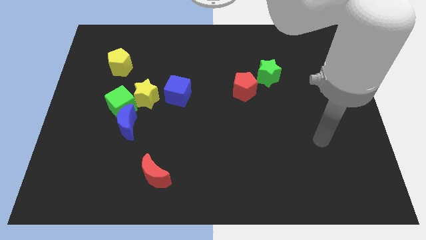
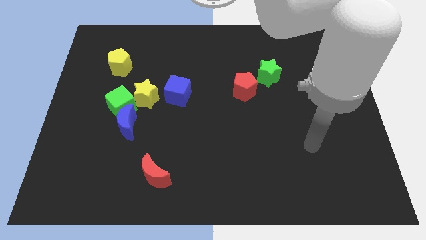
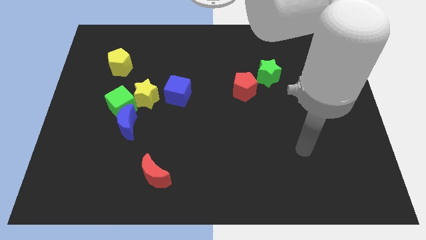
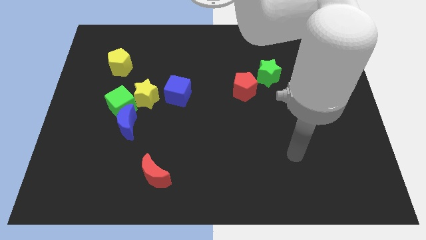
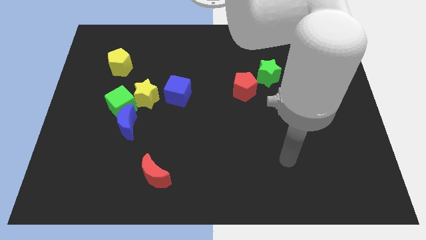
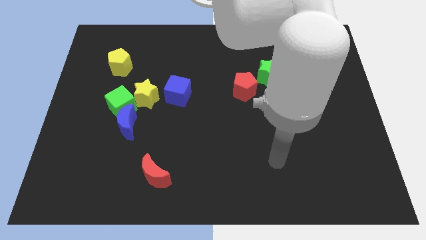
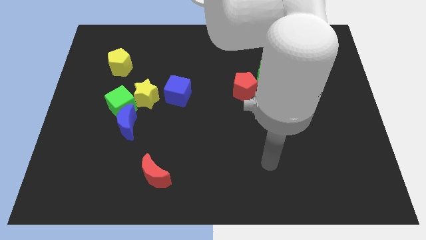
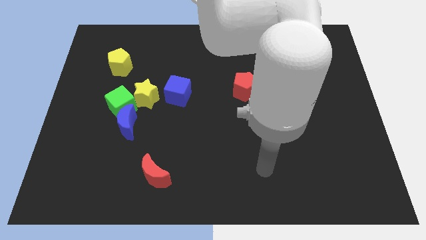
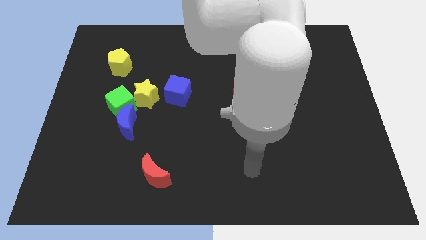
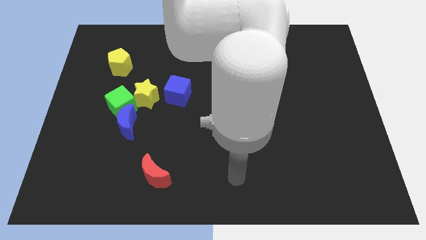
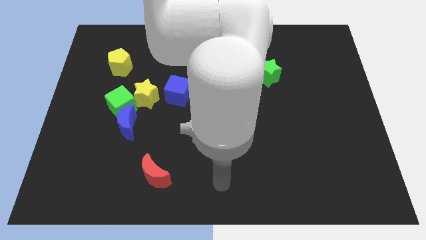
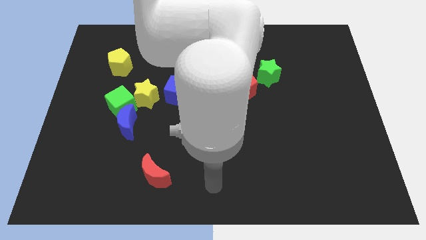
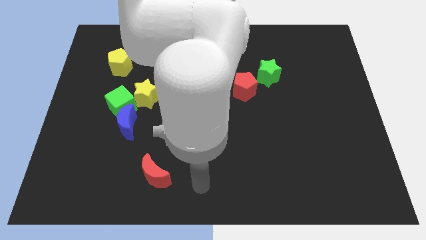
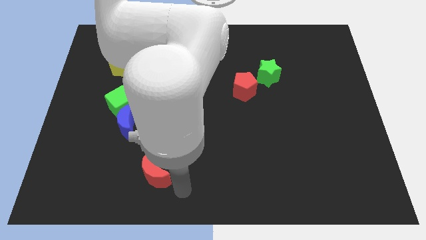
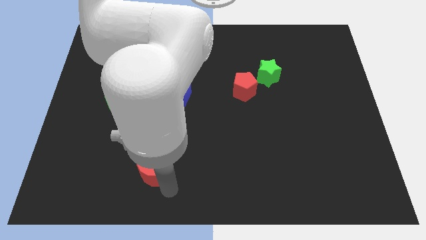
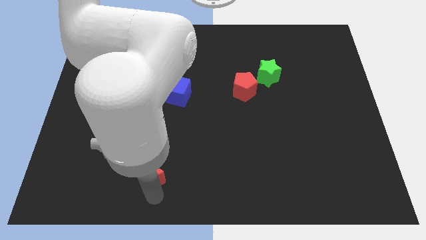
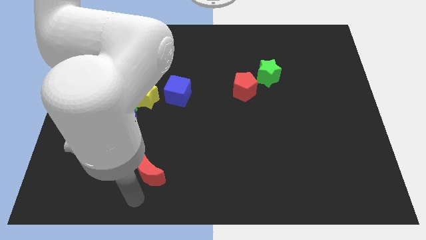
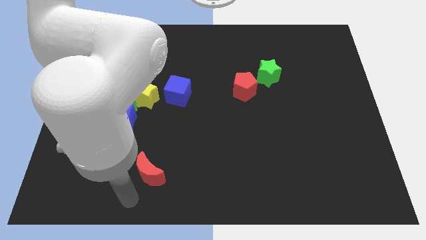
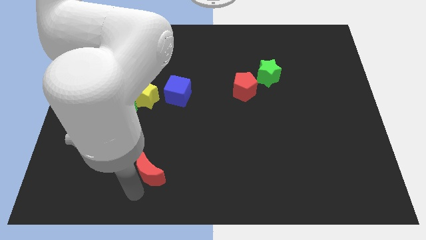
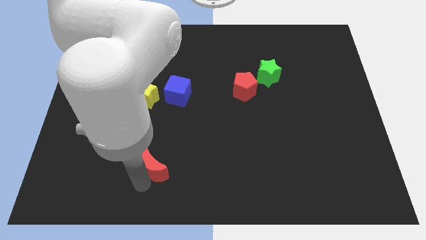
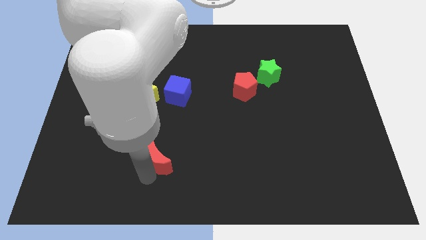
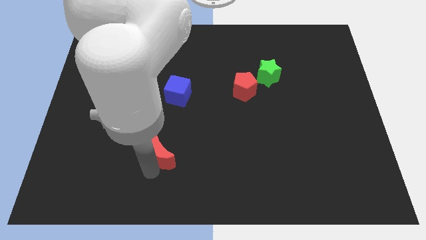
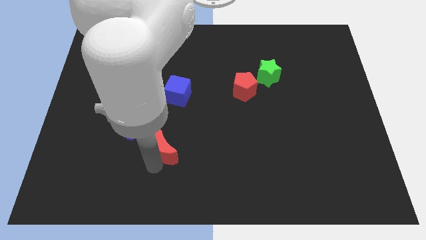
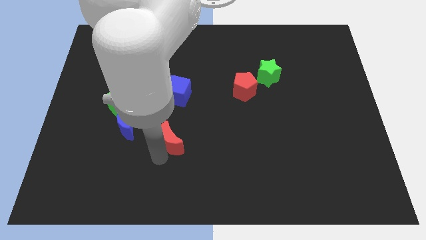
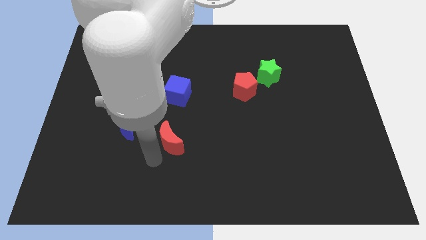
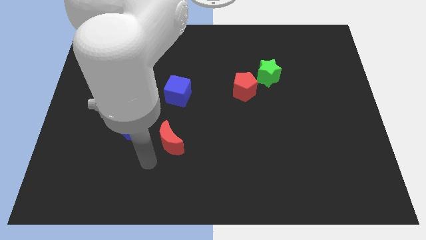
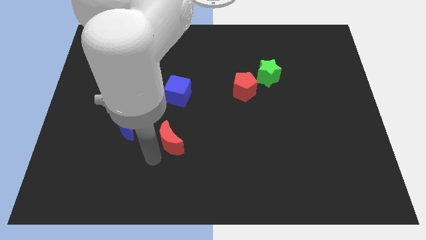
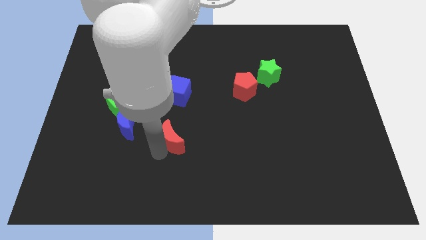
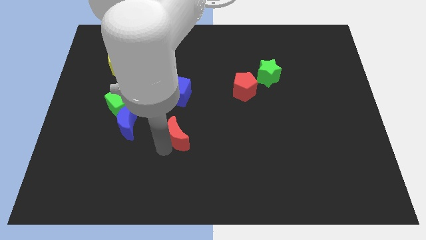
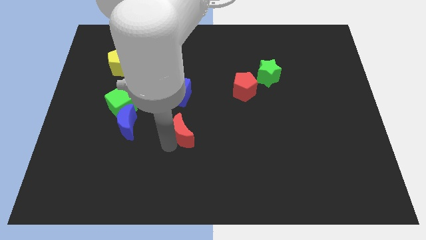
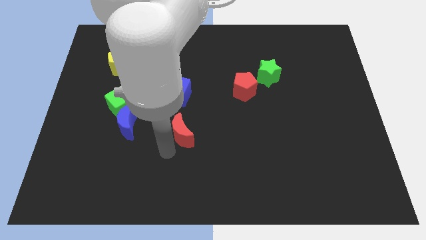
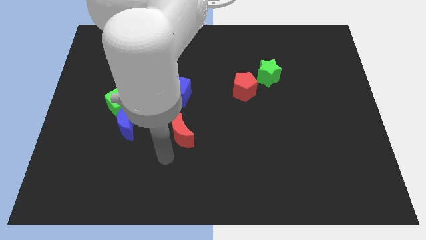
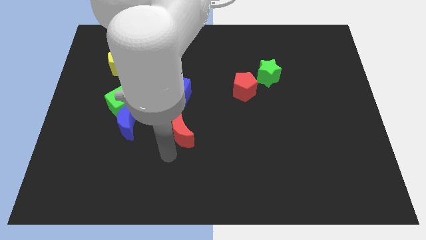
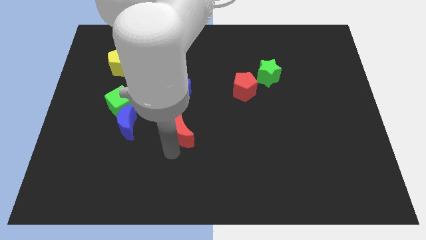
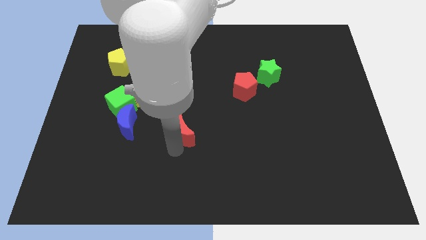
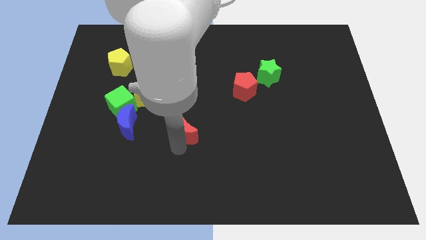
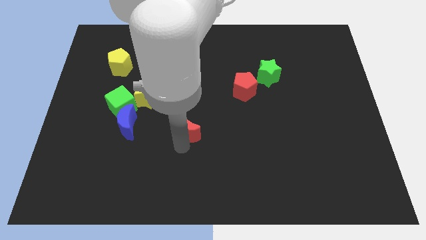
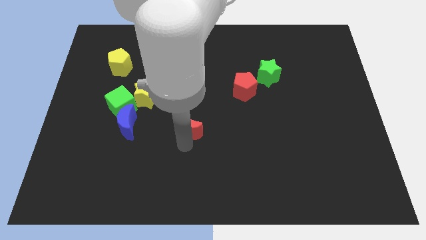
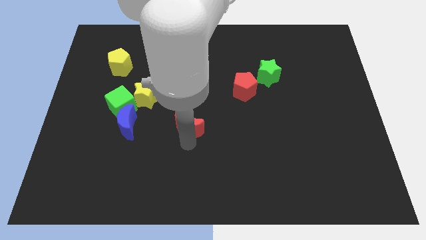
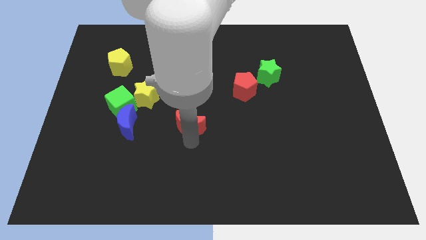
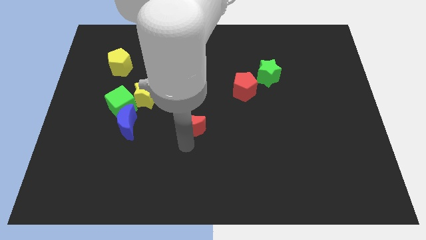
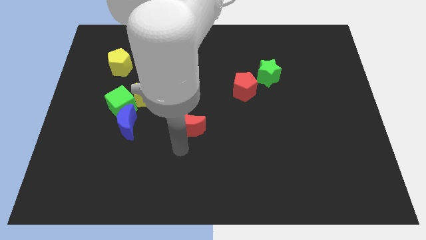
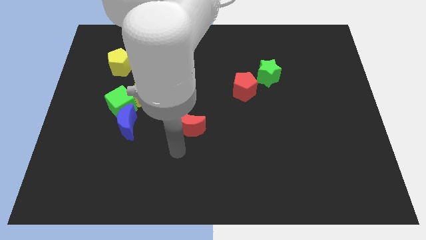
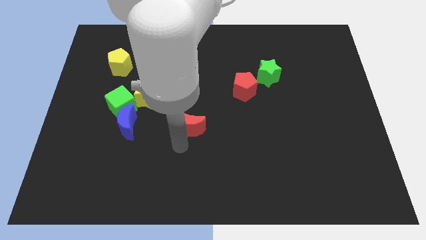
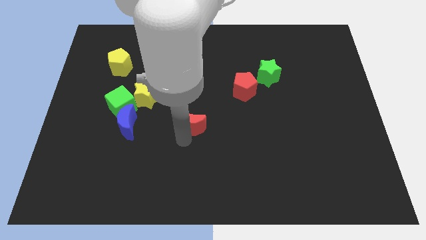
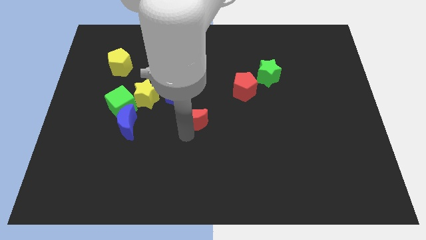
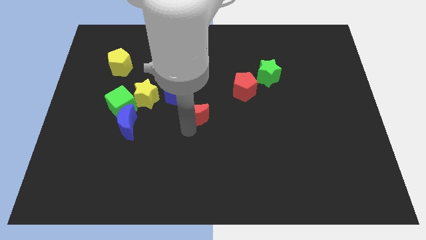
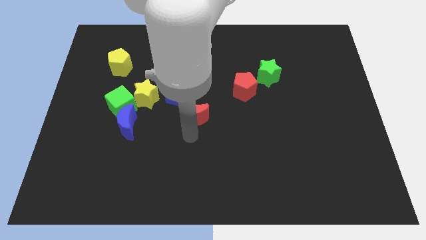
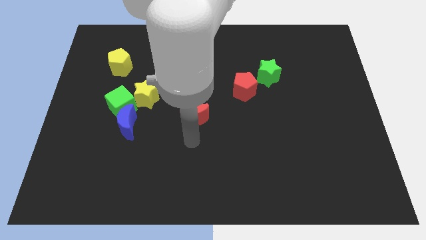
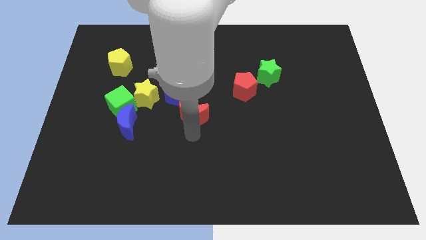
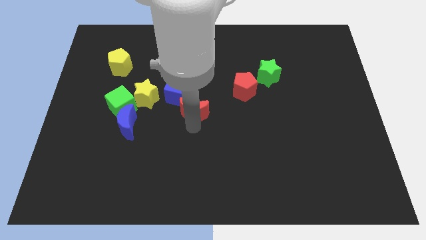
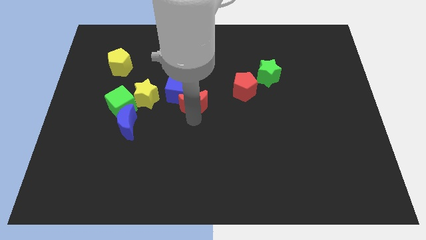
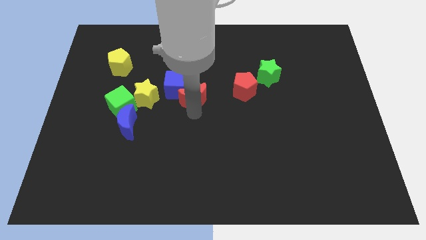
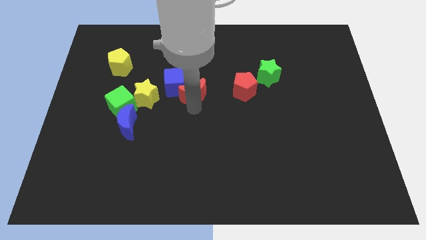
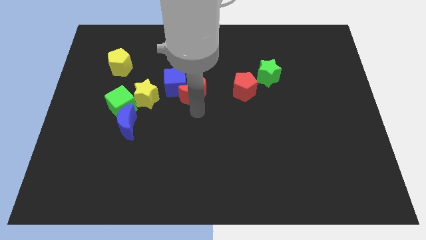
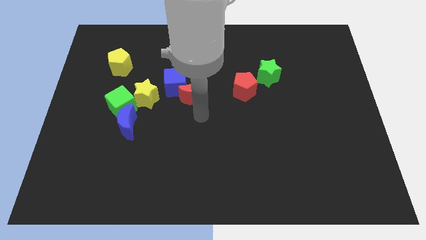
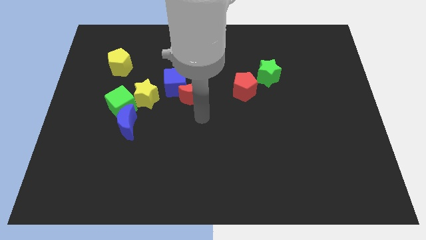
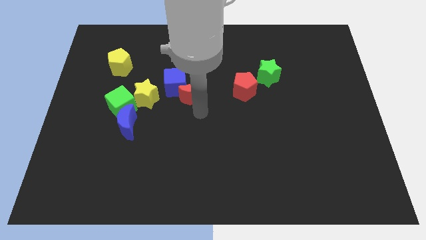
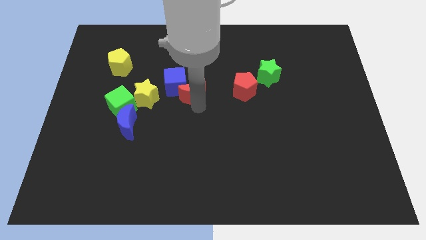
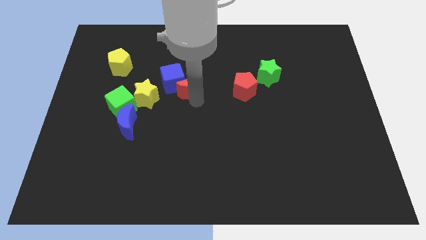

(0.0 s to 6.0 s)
slide the red moon upwards

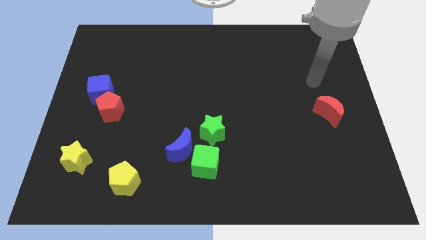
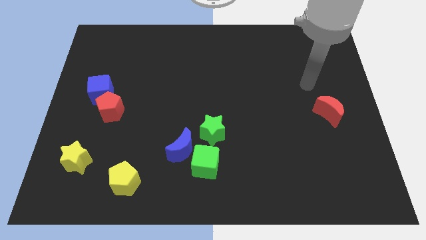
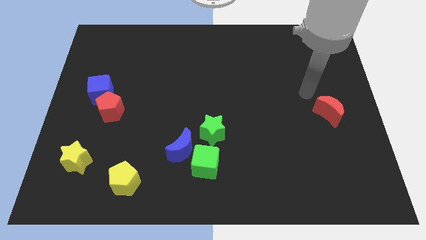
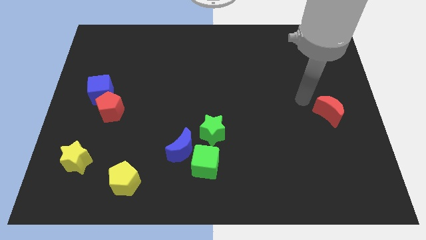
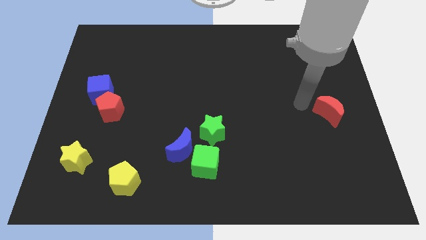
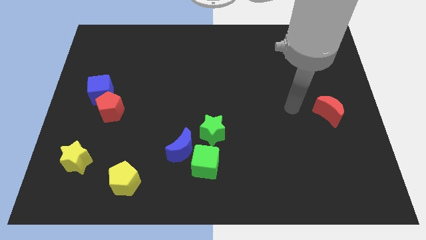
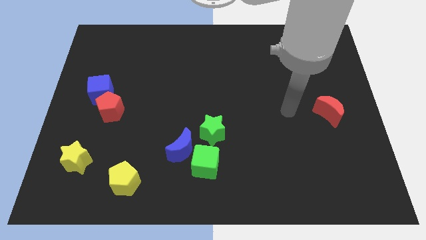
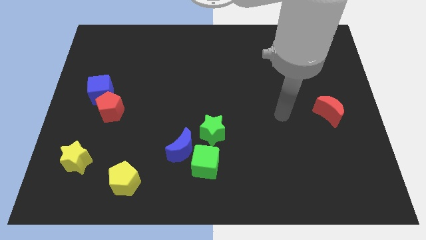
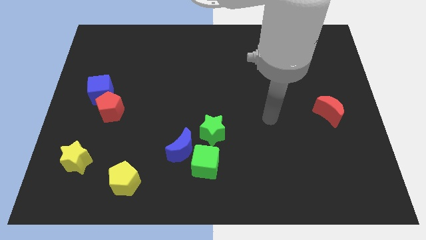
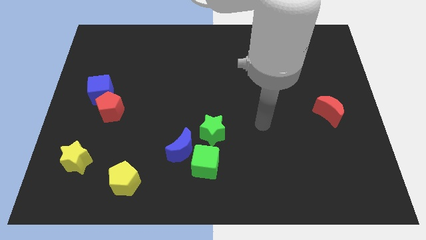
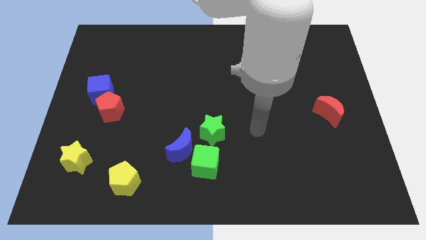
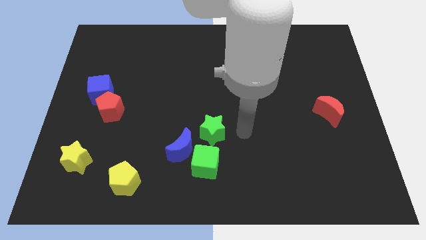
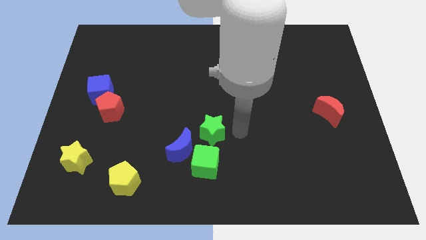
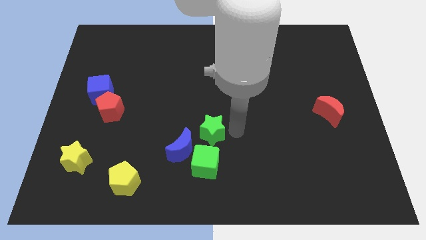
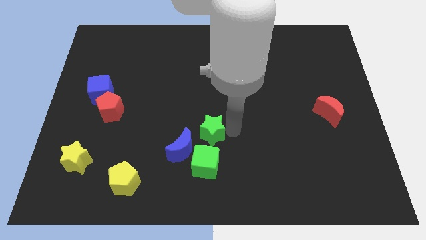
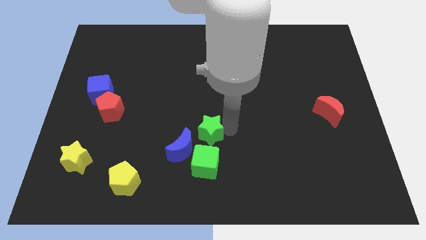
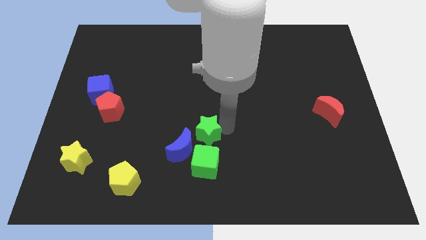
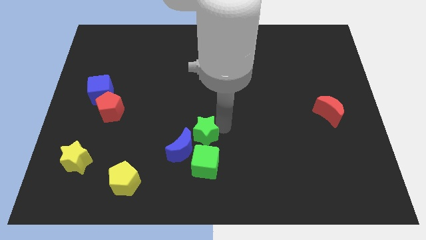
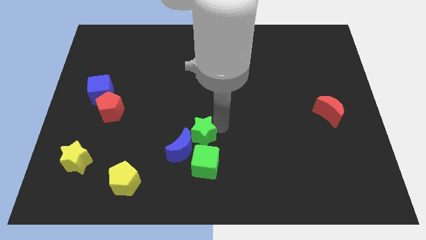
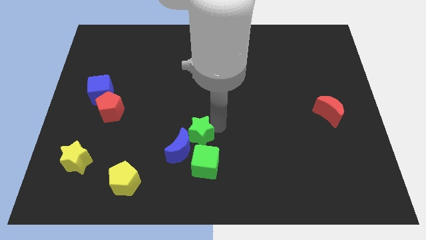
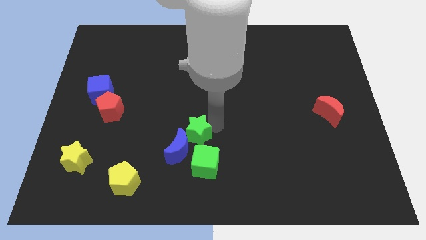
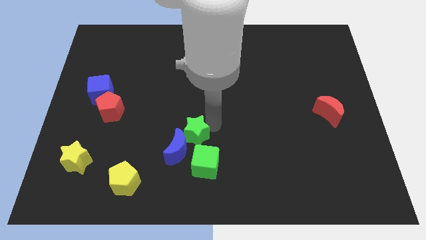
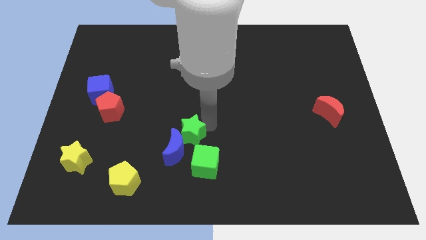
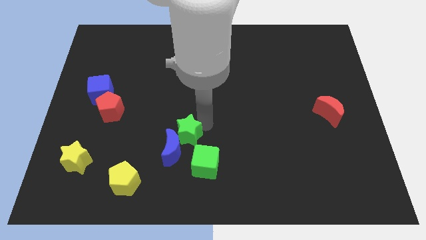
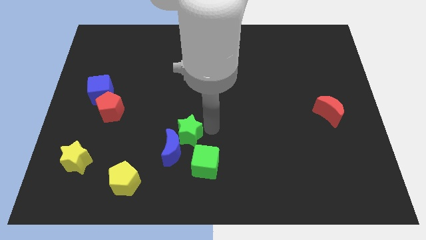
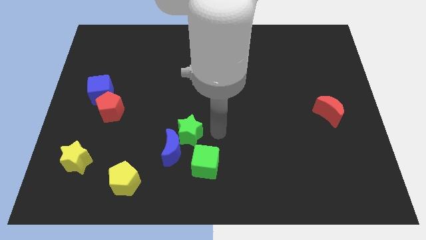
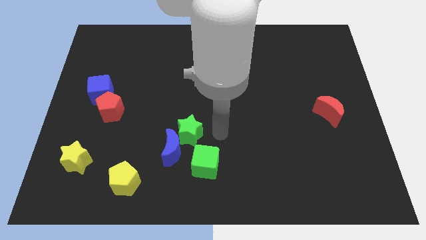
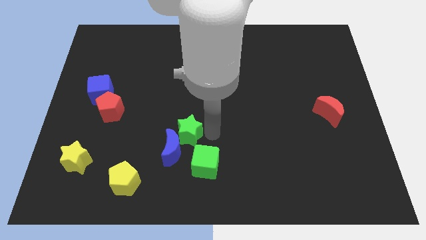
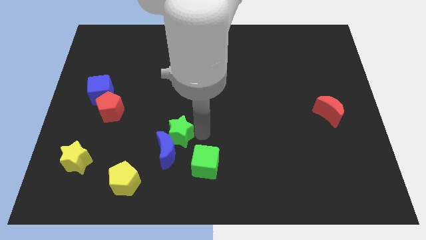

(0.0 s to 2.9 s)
slide the green star a bit to the left
